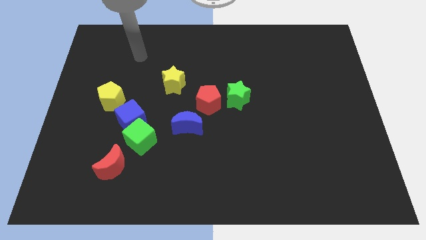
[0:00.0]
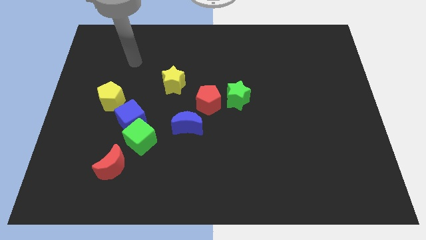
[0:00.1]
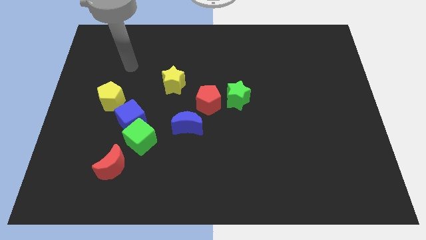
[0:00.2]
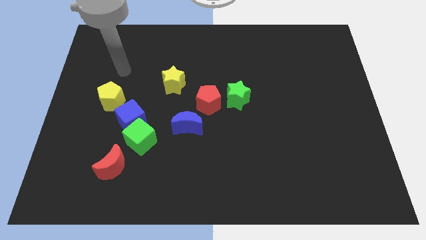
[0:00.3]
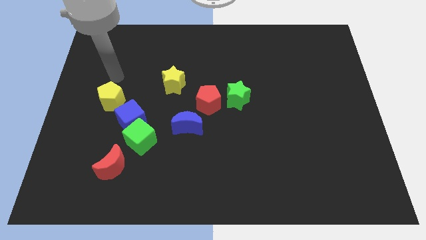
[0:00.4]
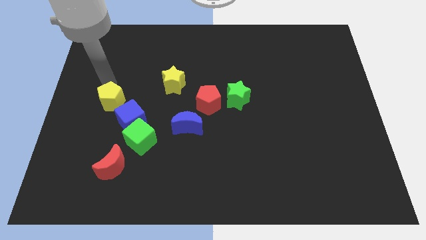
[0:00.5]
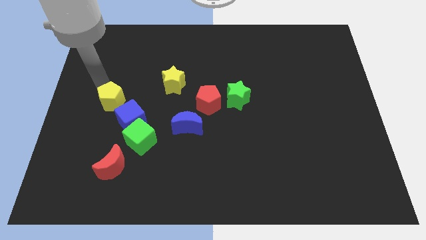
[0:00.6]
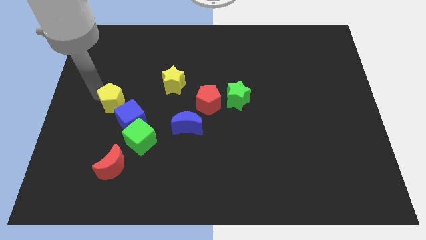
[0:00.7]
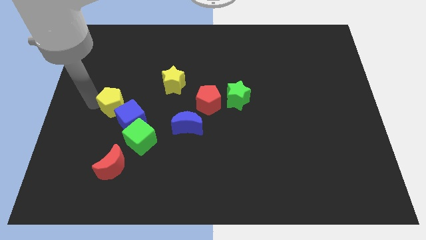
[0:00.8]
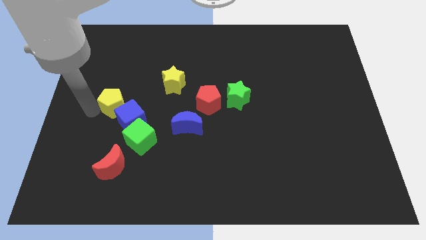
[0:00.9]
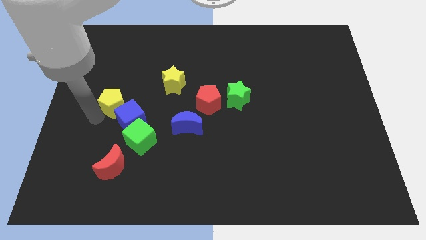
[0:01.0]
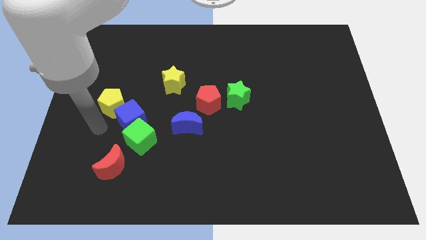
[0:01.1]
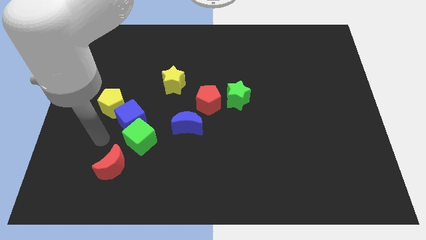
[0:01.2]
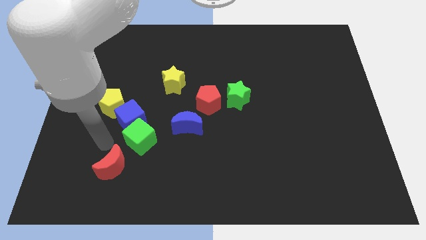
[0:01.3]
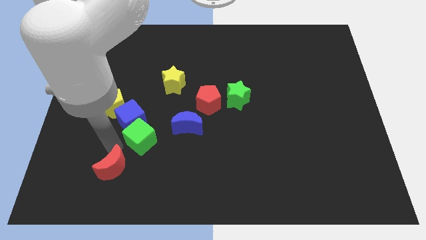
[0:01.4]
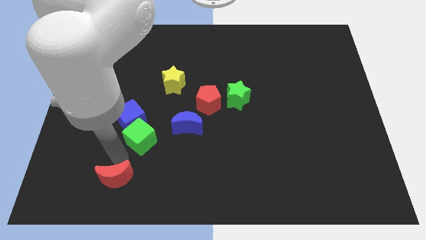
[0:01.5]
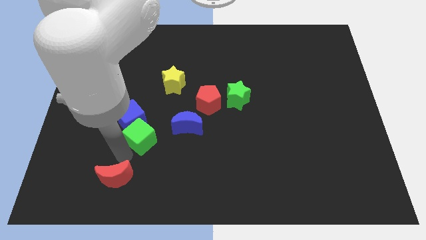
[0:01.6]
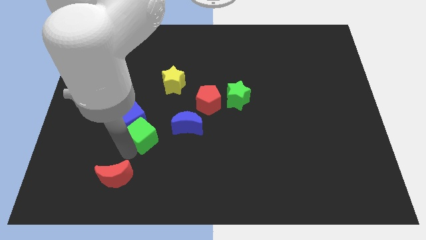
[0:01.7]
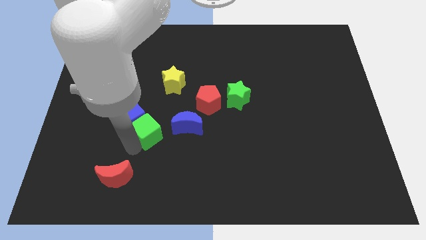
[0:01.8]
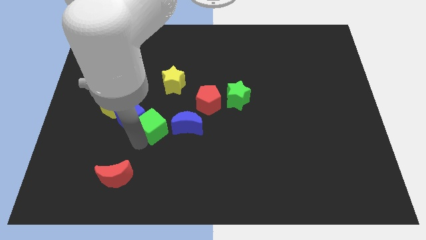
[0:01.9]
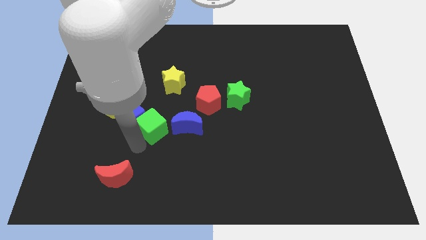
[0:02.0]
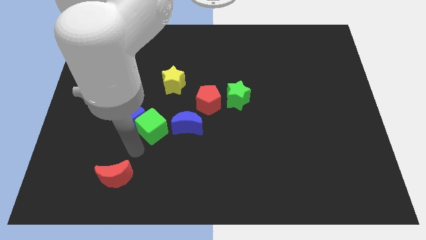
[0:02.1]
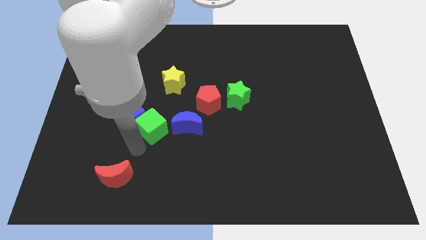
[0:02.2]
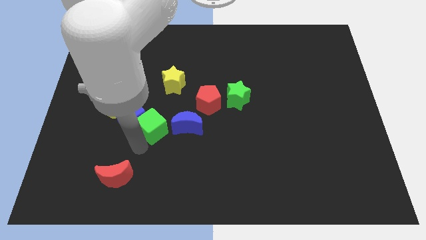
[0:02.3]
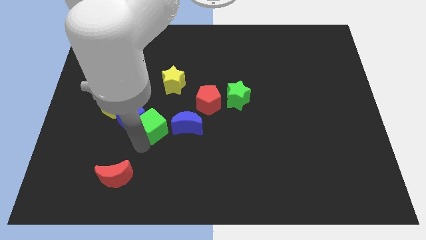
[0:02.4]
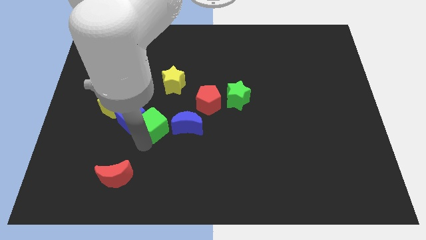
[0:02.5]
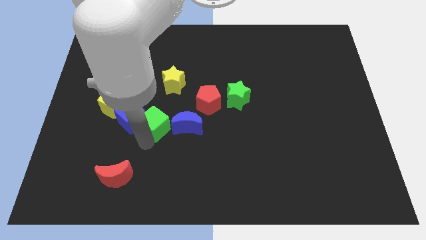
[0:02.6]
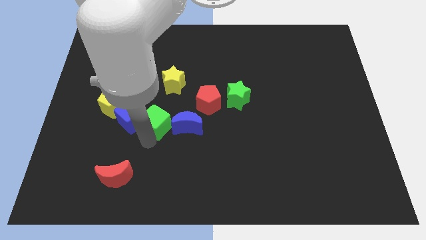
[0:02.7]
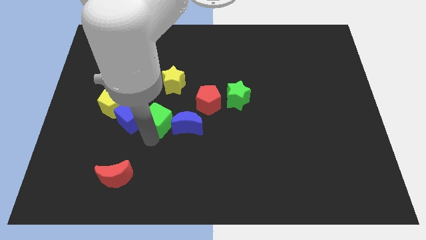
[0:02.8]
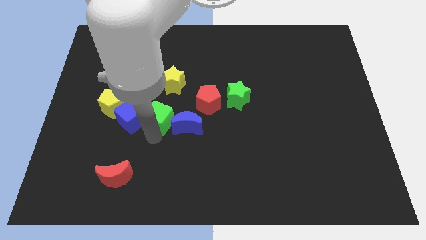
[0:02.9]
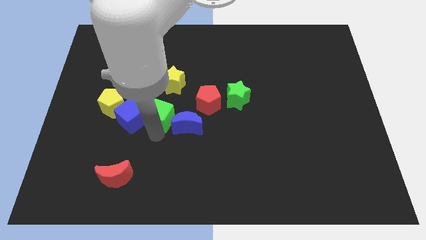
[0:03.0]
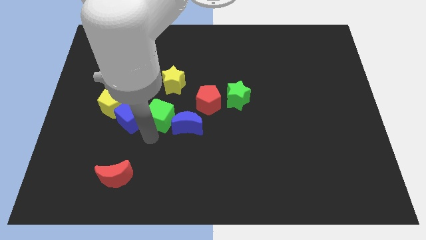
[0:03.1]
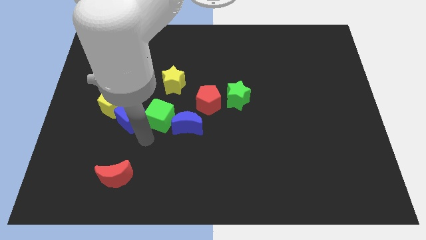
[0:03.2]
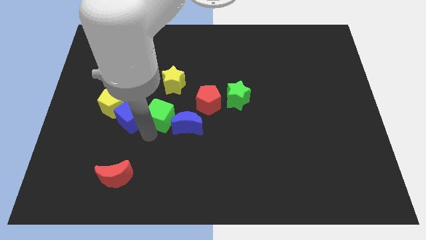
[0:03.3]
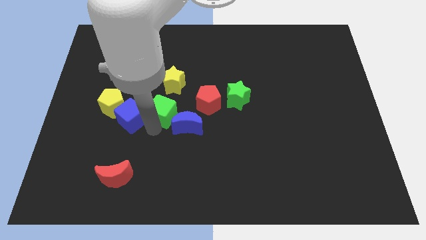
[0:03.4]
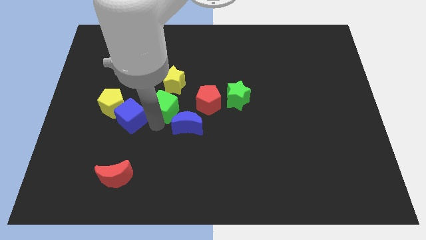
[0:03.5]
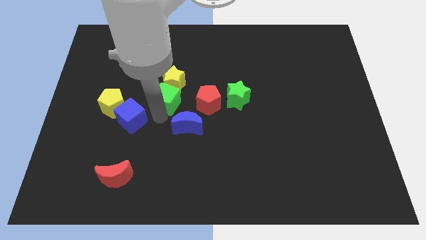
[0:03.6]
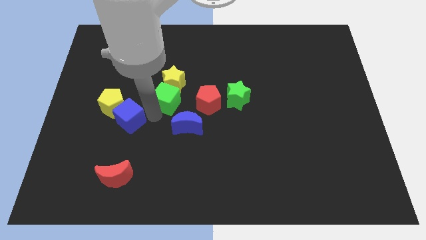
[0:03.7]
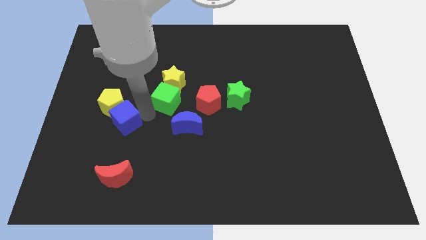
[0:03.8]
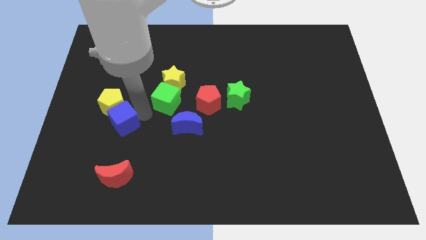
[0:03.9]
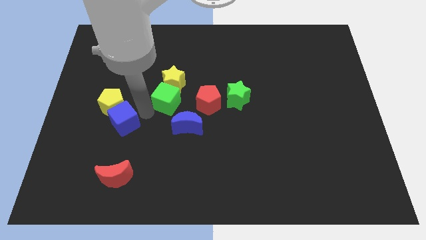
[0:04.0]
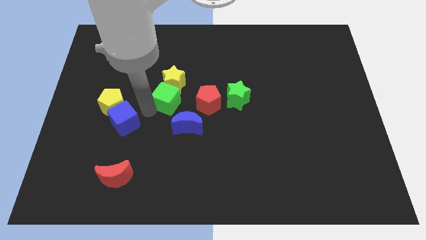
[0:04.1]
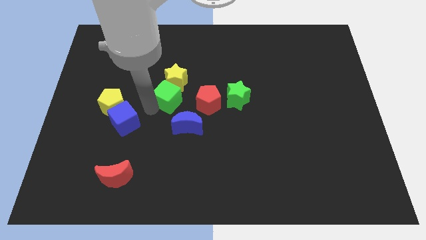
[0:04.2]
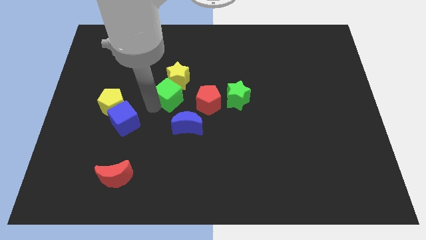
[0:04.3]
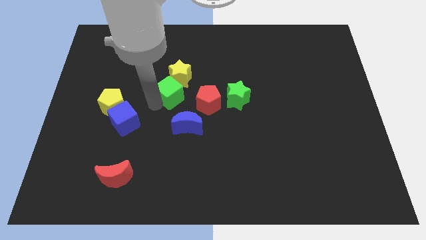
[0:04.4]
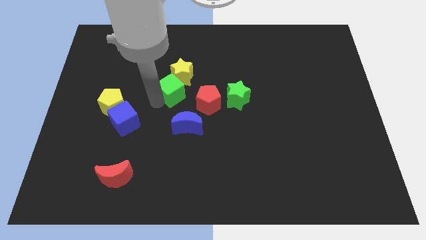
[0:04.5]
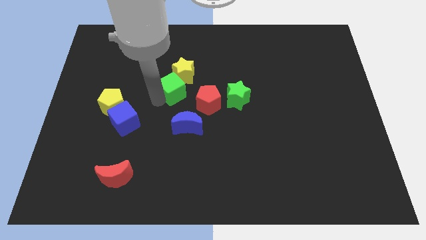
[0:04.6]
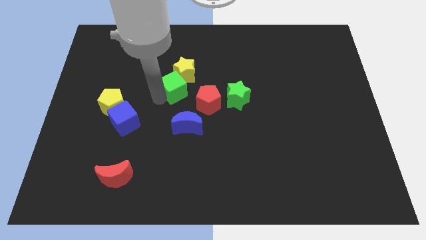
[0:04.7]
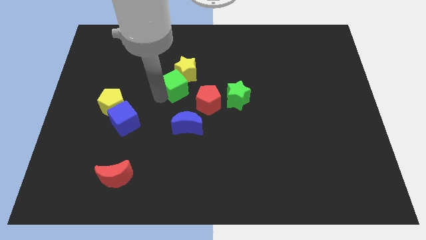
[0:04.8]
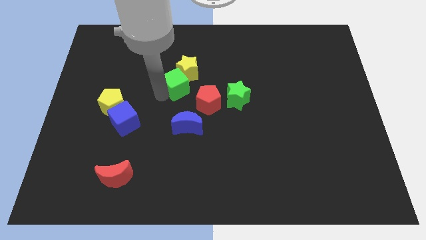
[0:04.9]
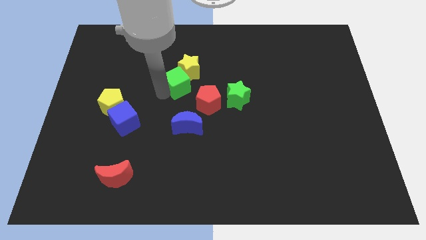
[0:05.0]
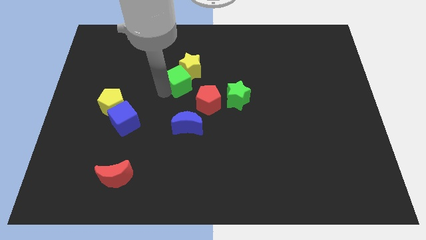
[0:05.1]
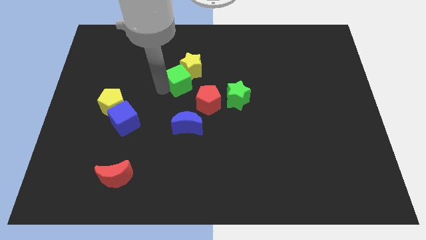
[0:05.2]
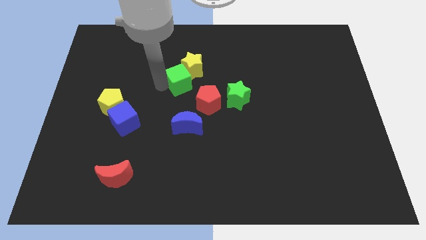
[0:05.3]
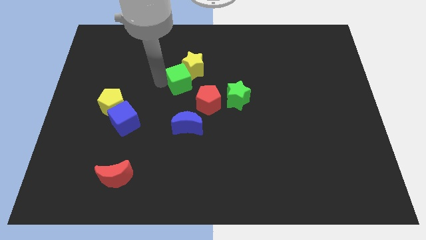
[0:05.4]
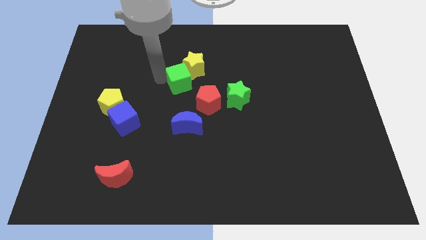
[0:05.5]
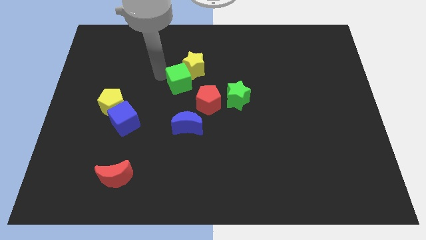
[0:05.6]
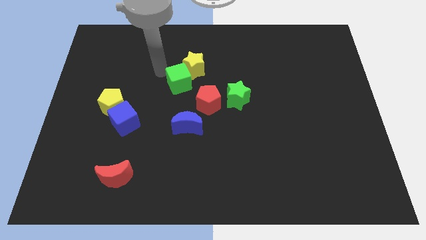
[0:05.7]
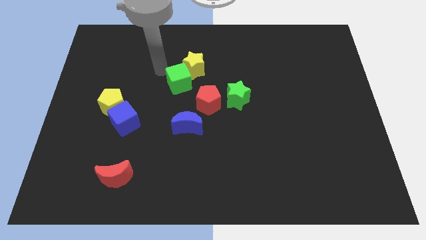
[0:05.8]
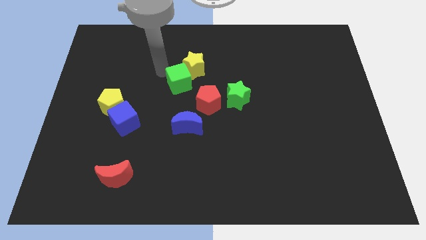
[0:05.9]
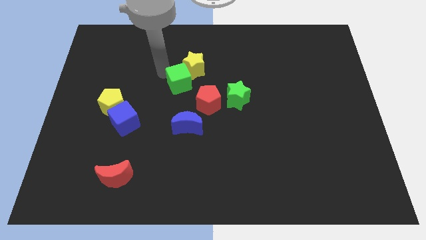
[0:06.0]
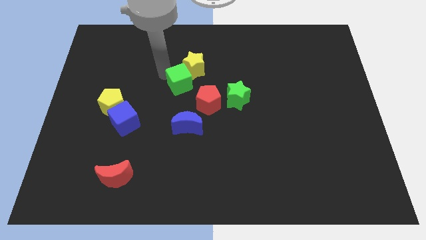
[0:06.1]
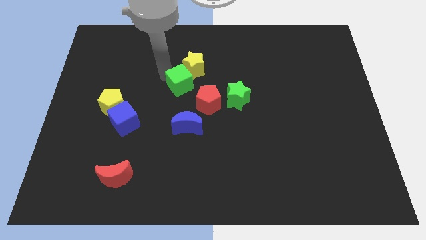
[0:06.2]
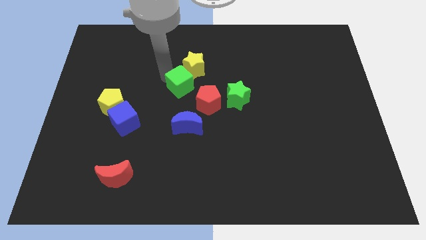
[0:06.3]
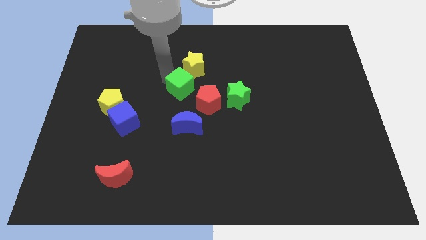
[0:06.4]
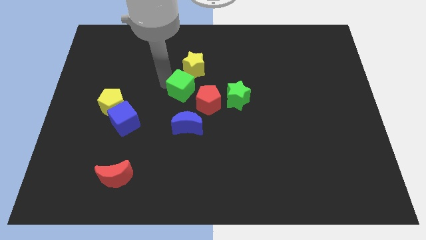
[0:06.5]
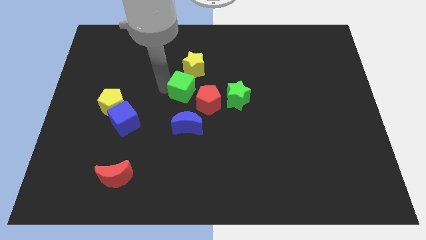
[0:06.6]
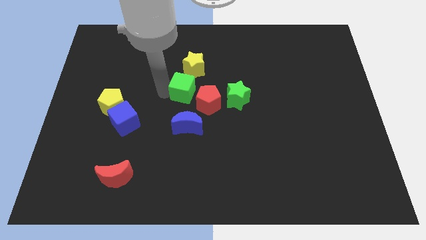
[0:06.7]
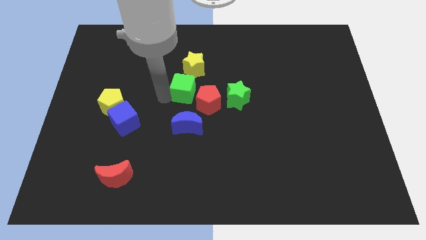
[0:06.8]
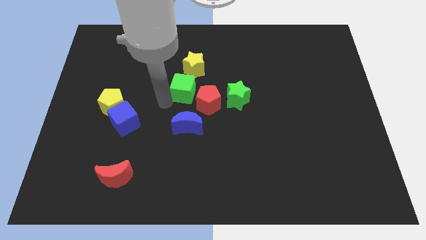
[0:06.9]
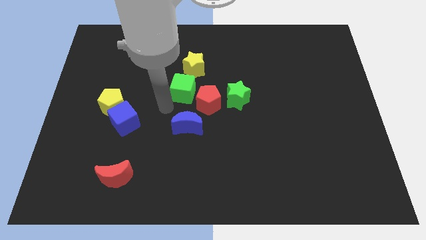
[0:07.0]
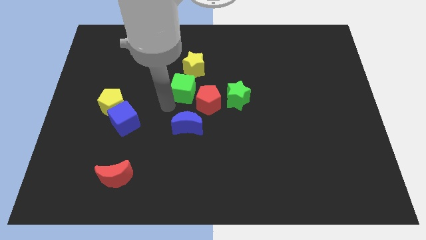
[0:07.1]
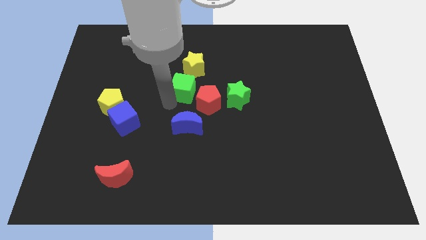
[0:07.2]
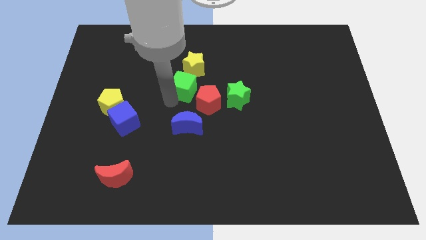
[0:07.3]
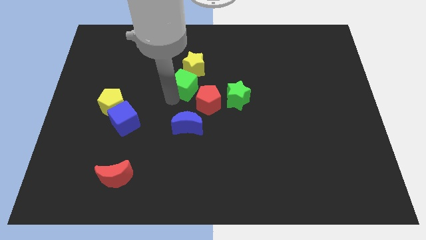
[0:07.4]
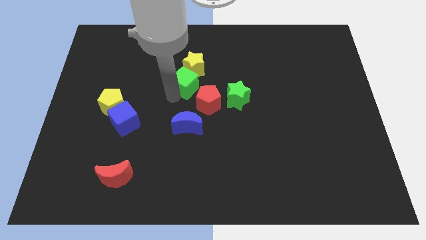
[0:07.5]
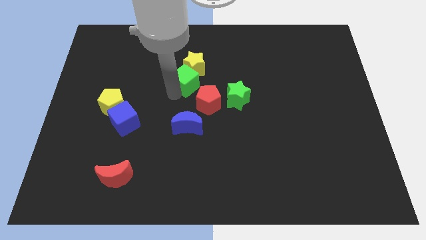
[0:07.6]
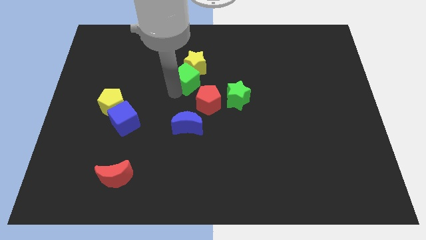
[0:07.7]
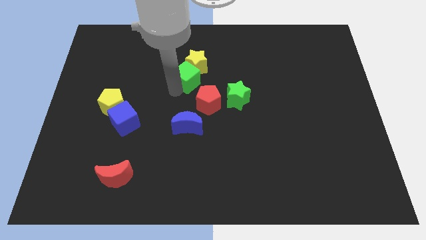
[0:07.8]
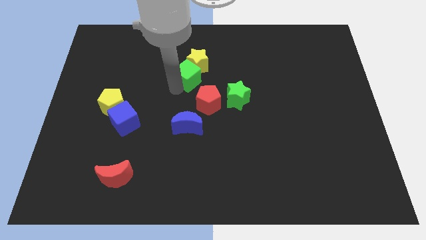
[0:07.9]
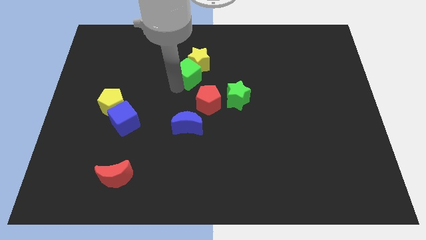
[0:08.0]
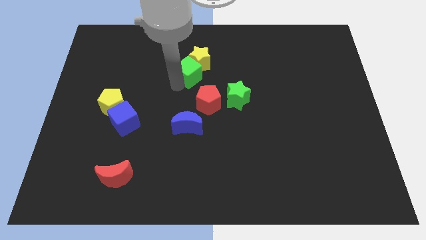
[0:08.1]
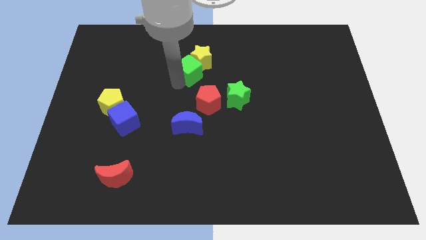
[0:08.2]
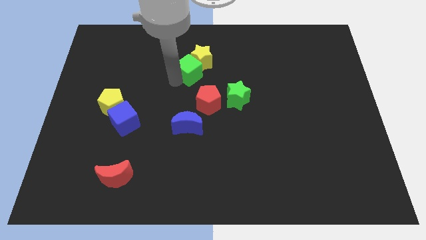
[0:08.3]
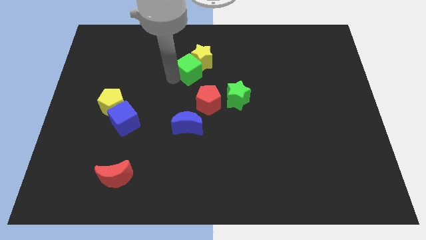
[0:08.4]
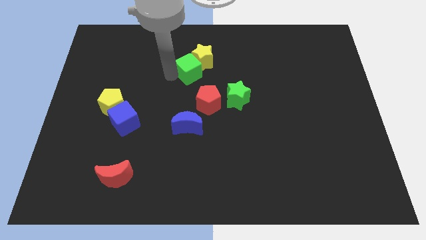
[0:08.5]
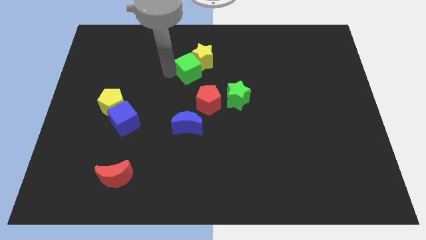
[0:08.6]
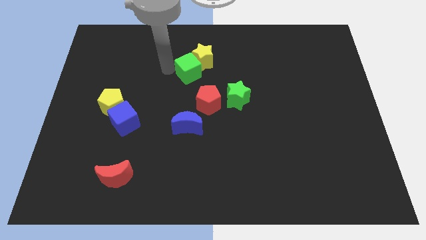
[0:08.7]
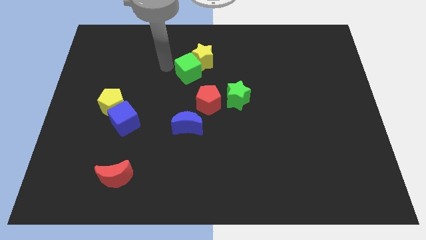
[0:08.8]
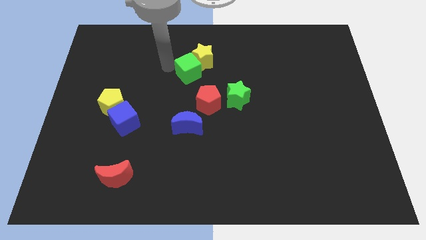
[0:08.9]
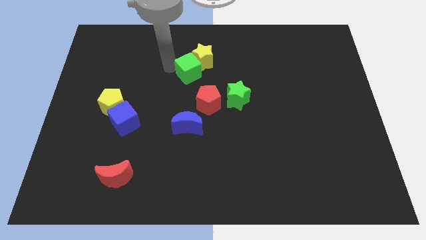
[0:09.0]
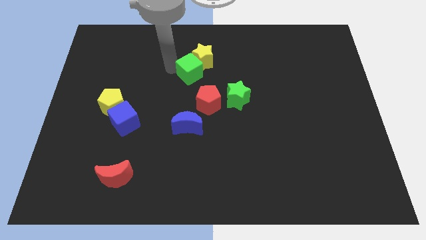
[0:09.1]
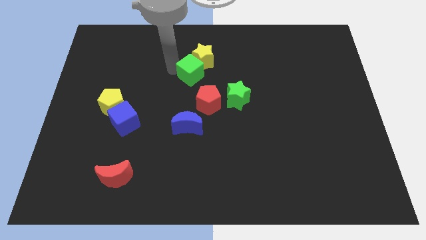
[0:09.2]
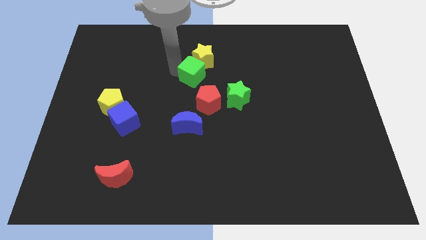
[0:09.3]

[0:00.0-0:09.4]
move the green cube up and then to the right
